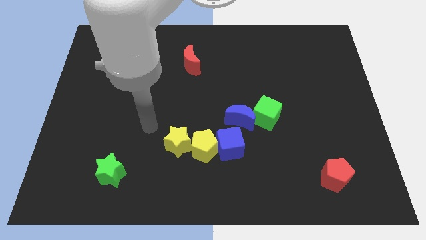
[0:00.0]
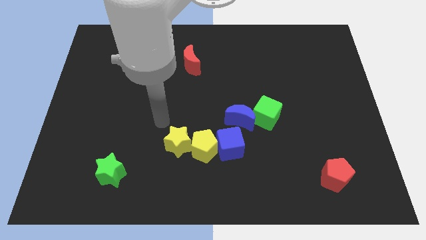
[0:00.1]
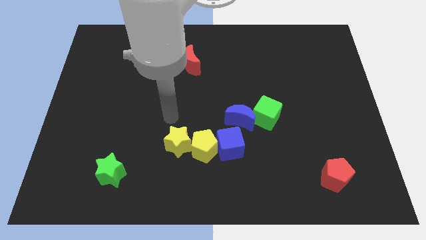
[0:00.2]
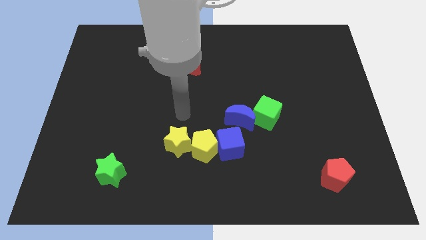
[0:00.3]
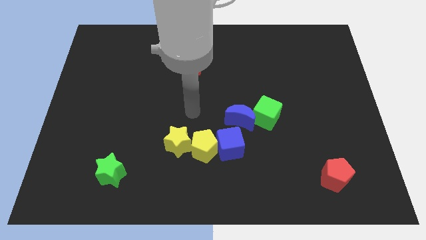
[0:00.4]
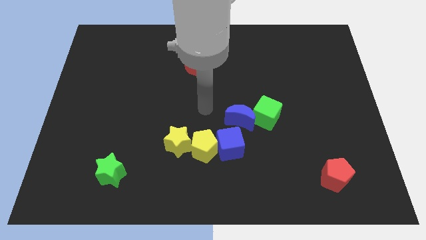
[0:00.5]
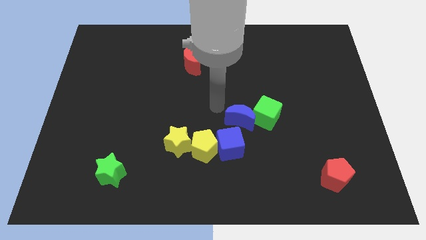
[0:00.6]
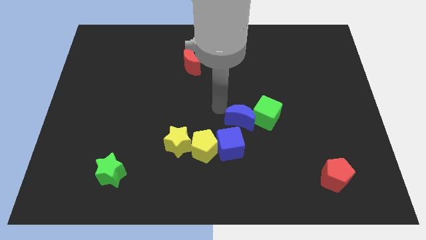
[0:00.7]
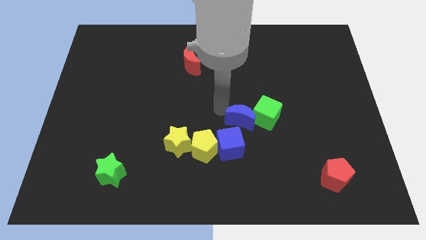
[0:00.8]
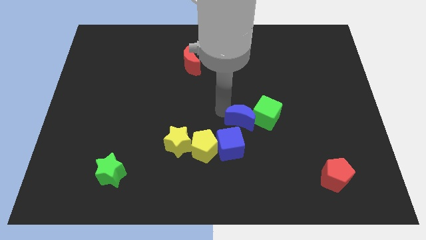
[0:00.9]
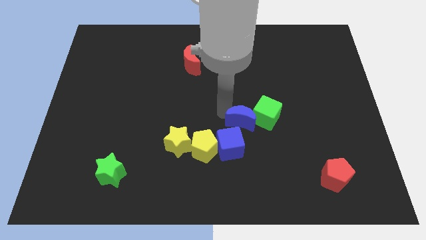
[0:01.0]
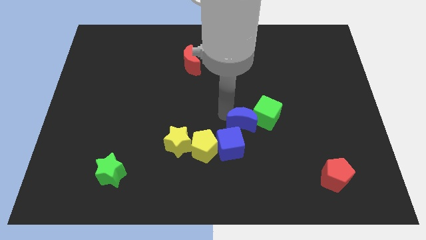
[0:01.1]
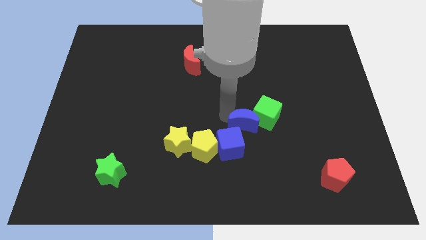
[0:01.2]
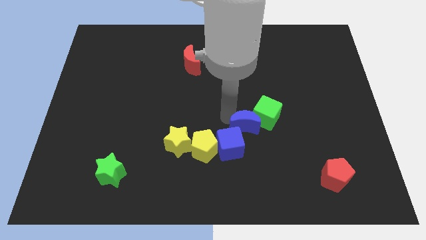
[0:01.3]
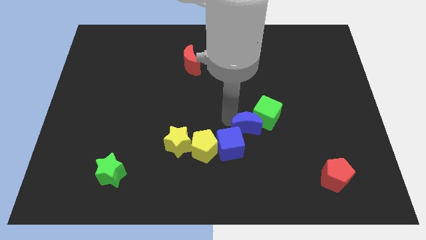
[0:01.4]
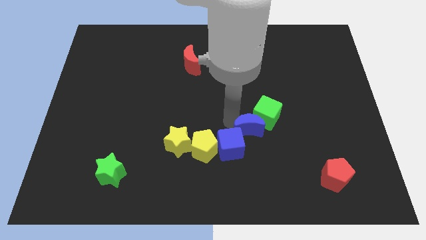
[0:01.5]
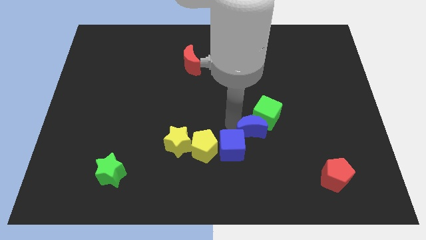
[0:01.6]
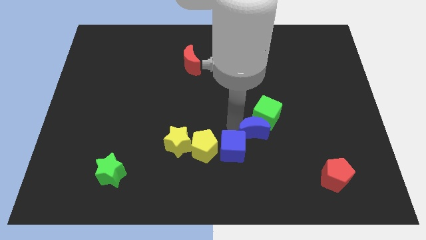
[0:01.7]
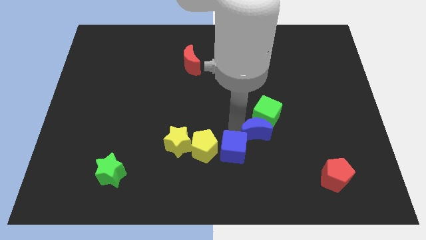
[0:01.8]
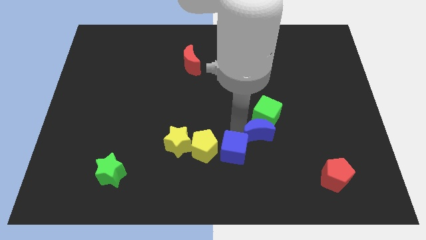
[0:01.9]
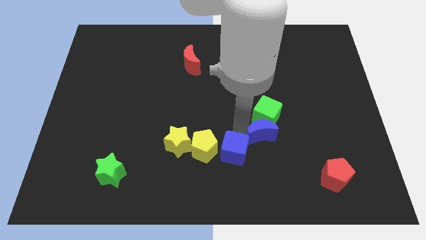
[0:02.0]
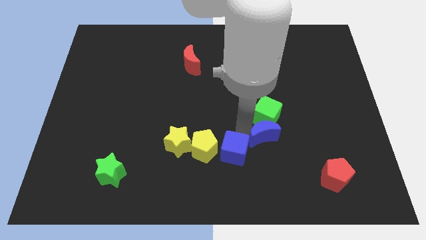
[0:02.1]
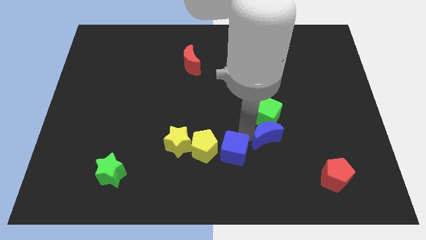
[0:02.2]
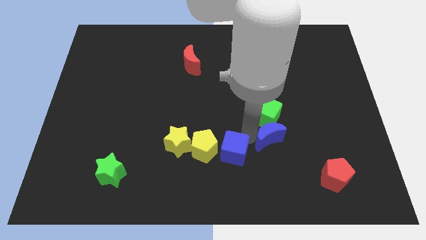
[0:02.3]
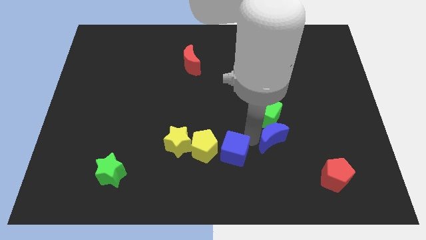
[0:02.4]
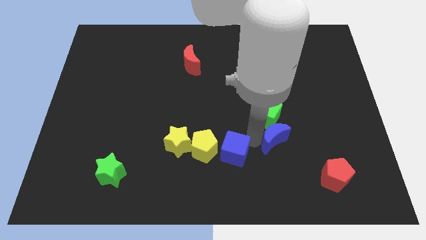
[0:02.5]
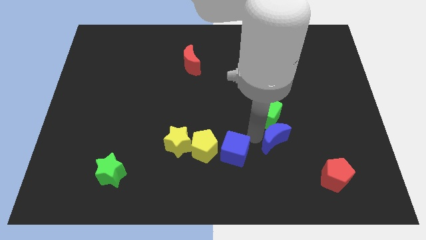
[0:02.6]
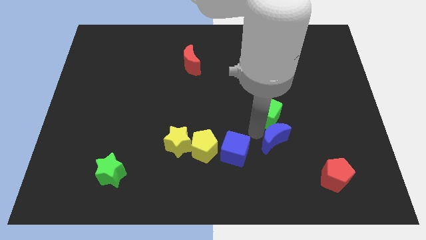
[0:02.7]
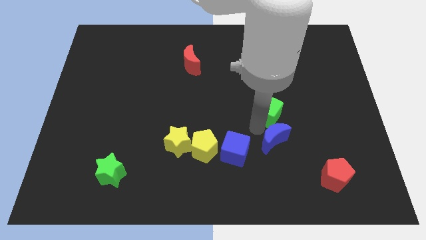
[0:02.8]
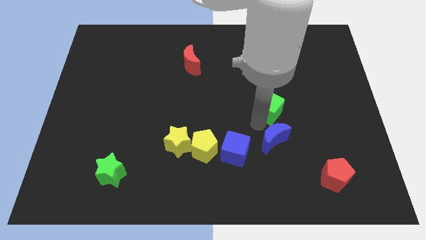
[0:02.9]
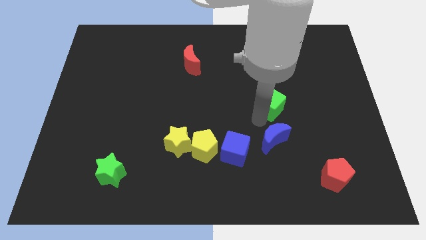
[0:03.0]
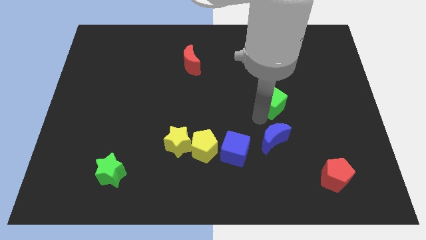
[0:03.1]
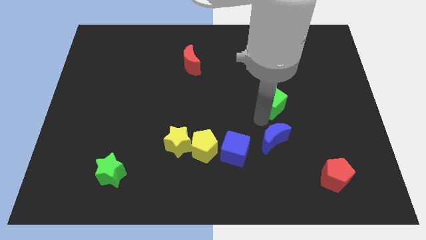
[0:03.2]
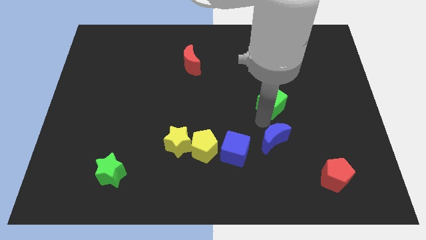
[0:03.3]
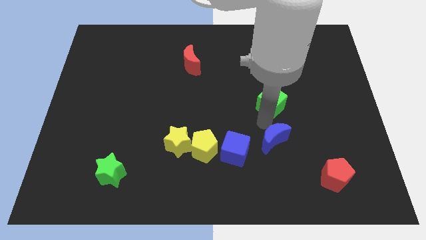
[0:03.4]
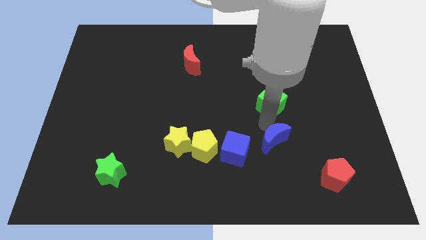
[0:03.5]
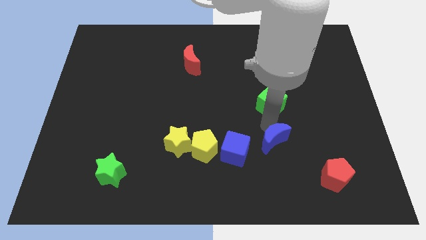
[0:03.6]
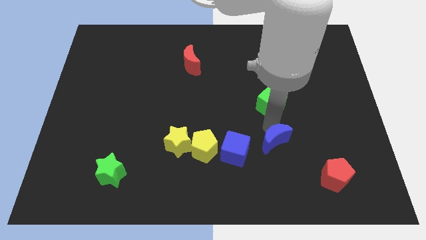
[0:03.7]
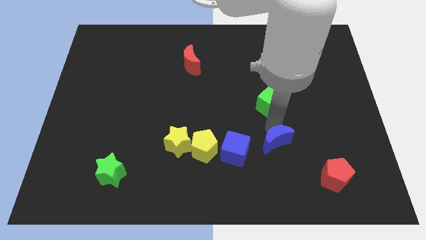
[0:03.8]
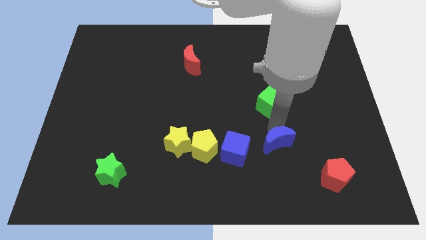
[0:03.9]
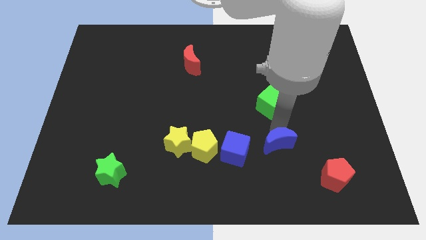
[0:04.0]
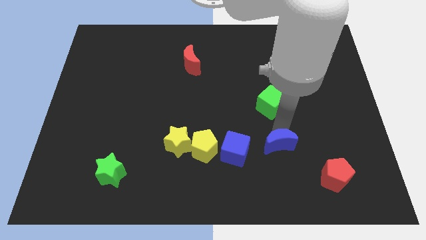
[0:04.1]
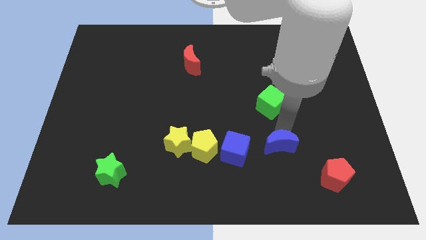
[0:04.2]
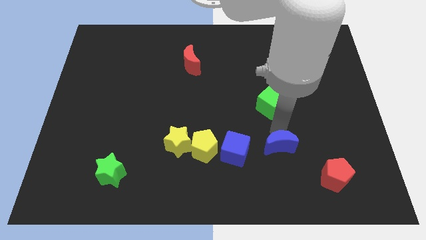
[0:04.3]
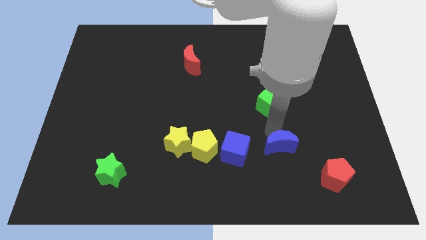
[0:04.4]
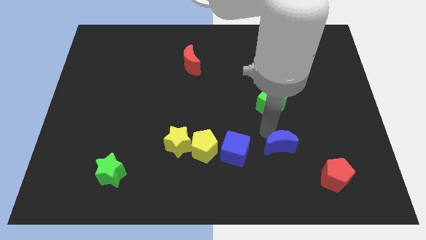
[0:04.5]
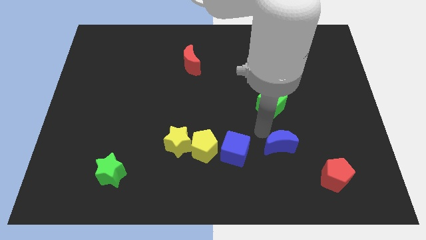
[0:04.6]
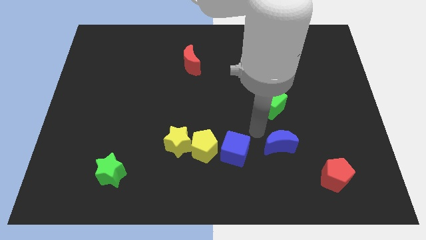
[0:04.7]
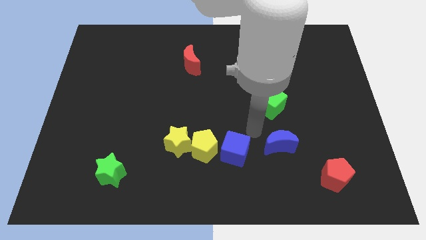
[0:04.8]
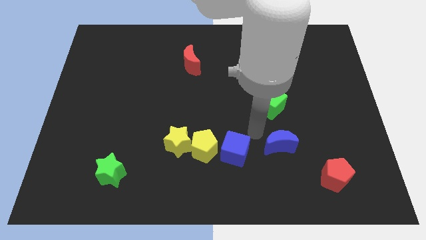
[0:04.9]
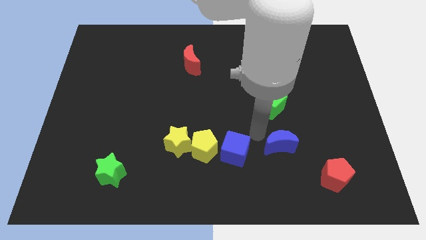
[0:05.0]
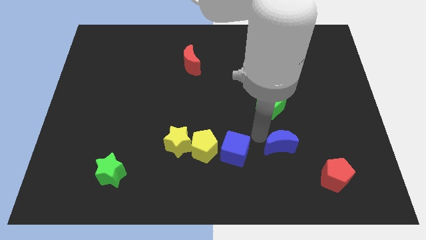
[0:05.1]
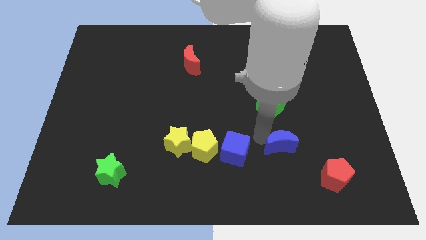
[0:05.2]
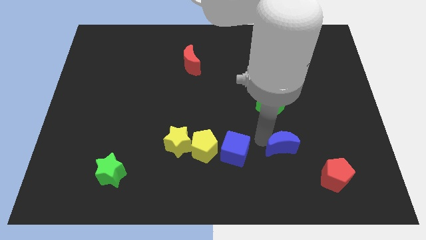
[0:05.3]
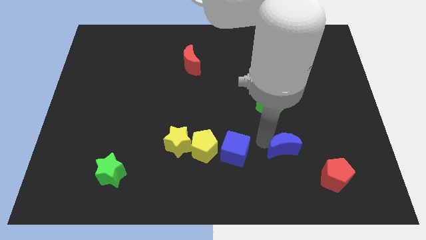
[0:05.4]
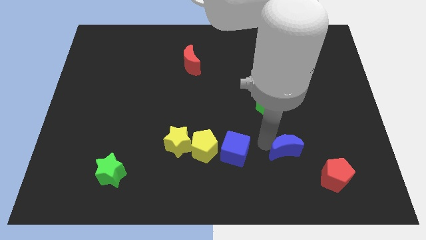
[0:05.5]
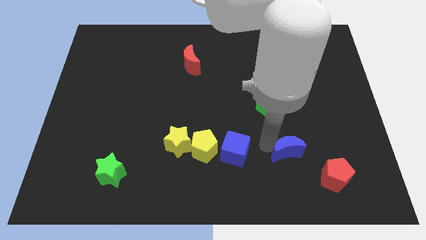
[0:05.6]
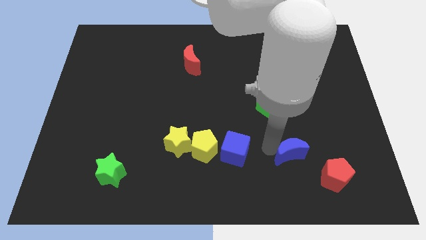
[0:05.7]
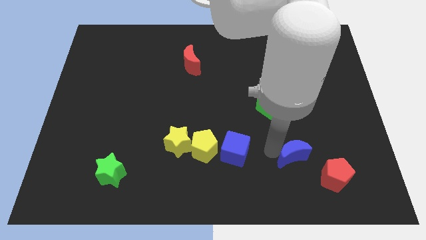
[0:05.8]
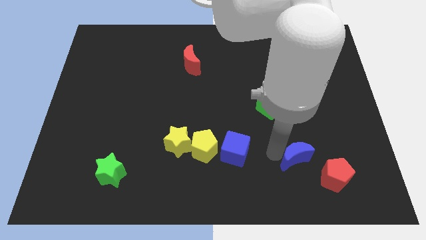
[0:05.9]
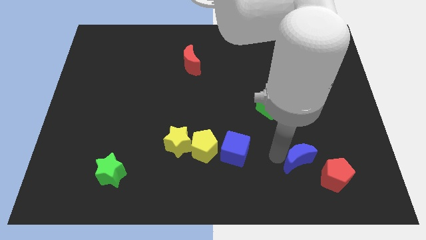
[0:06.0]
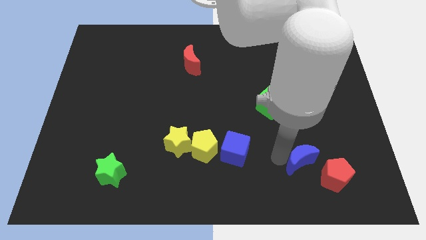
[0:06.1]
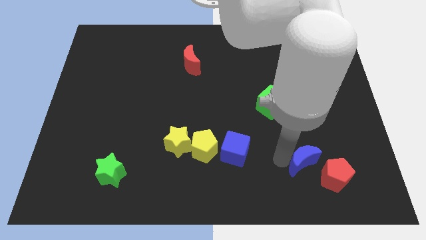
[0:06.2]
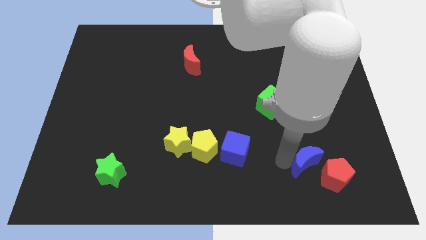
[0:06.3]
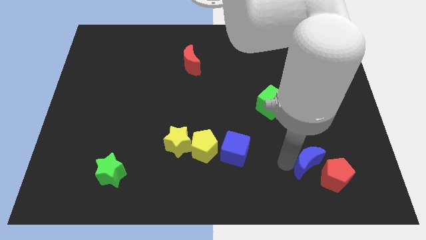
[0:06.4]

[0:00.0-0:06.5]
push the blue moon close to the red pentagon
